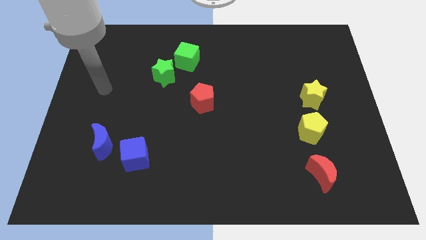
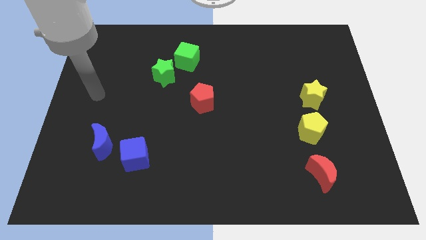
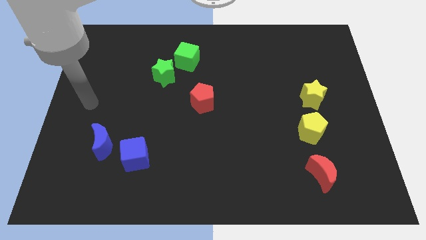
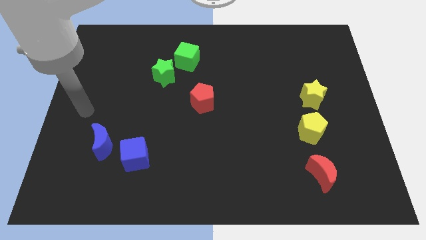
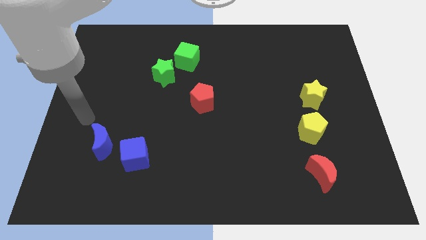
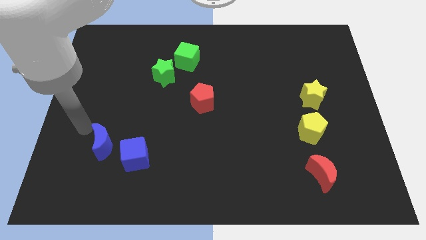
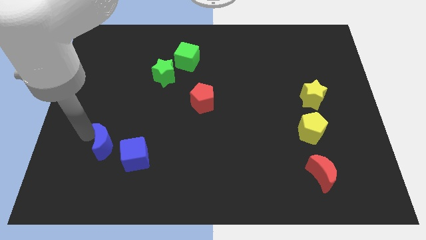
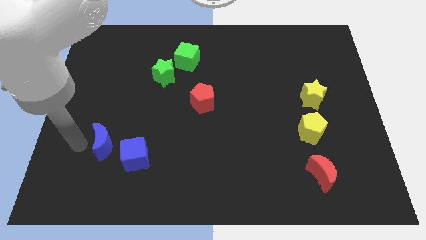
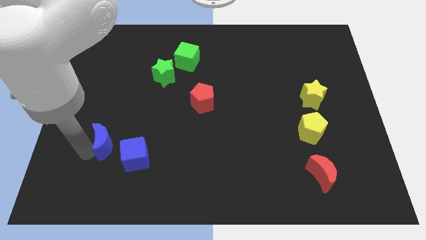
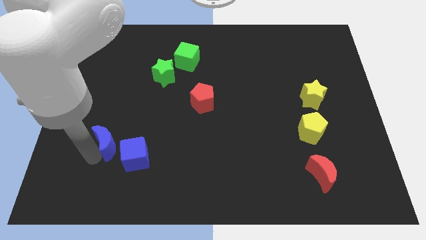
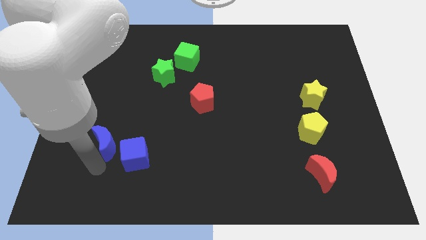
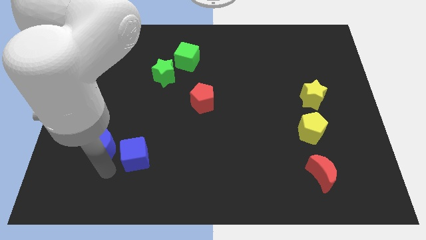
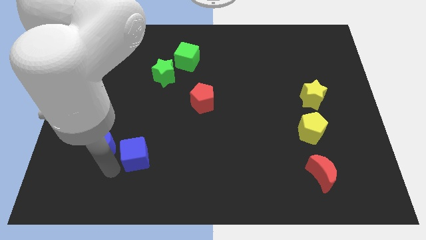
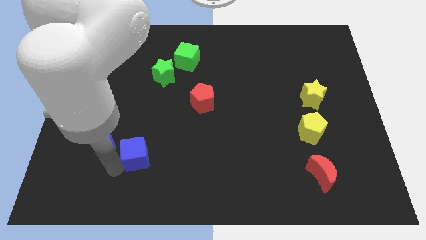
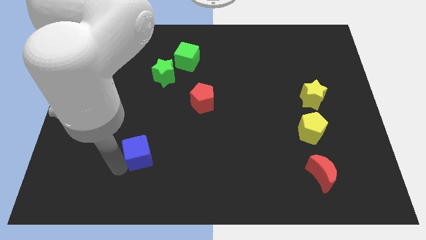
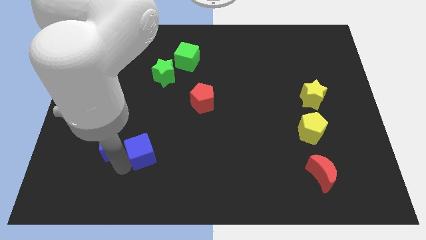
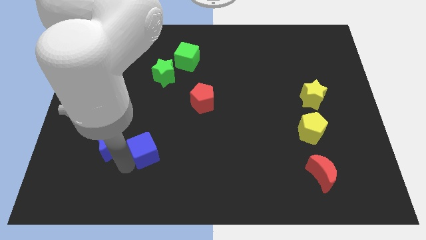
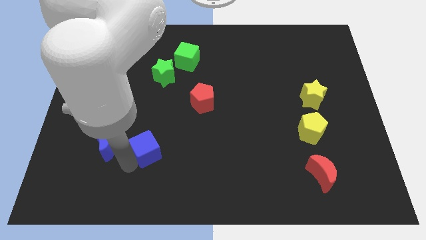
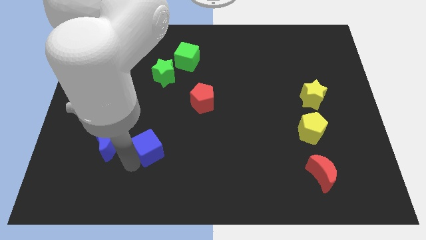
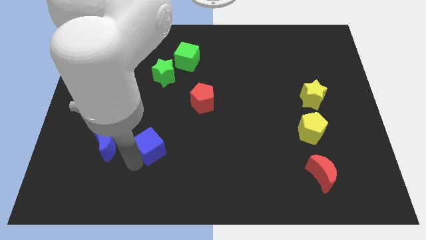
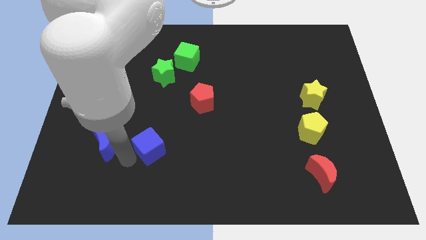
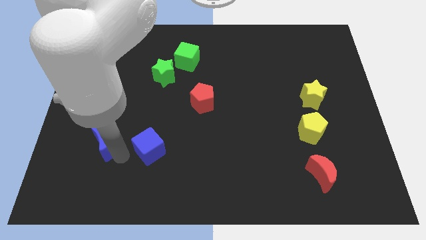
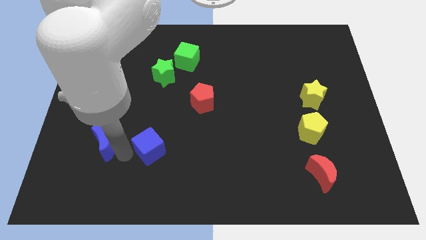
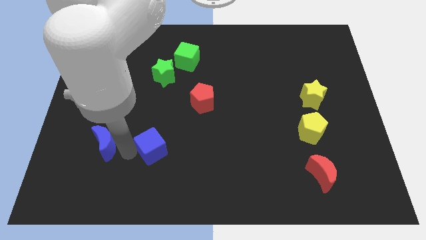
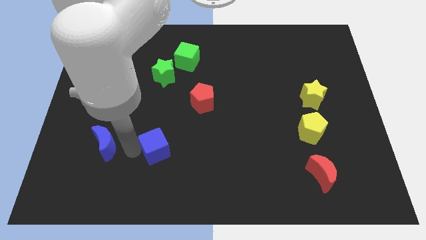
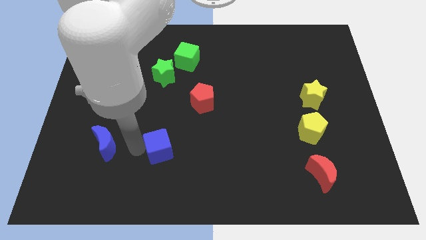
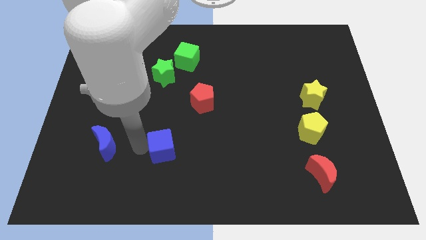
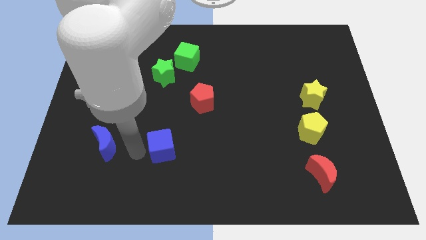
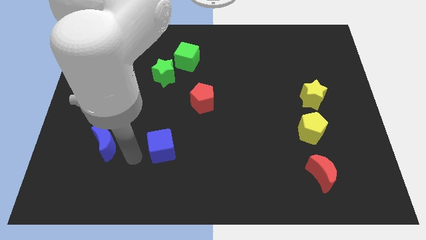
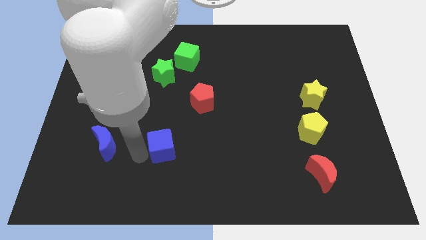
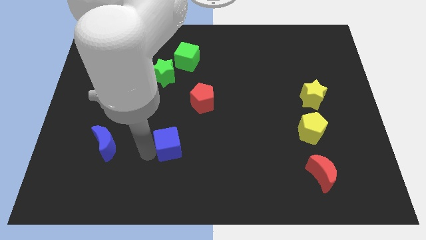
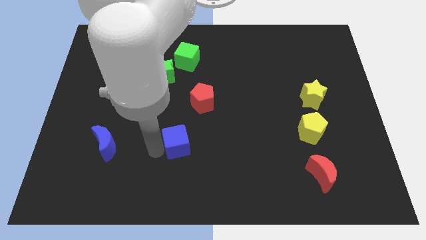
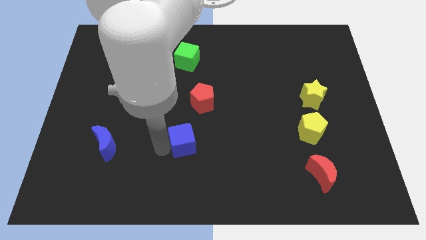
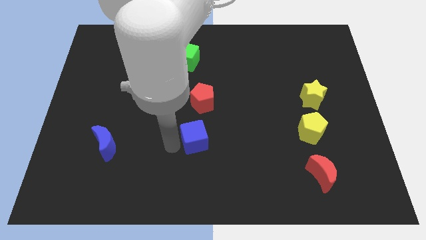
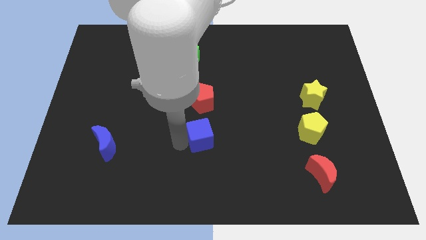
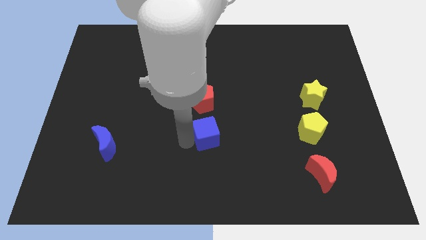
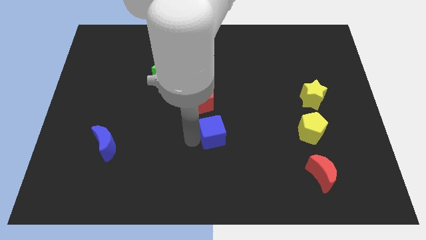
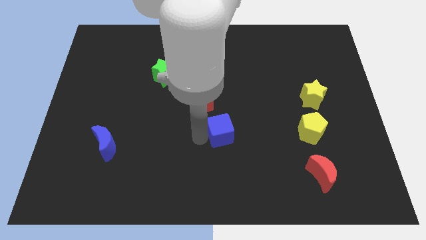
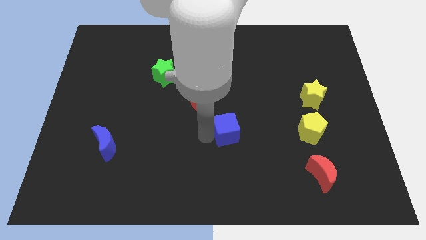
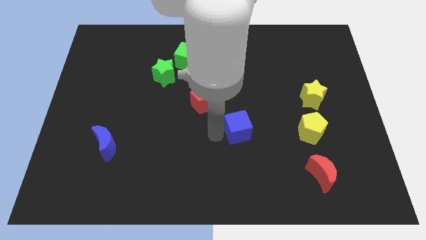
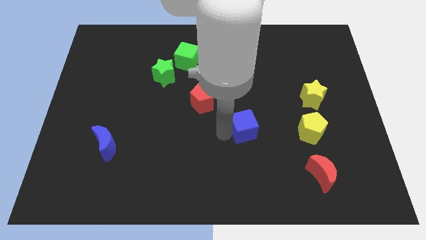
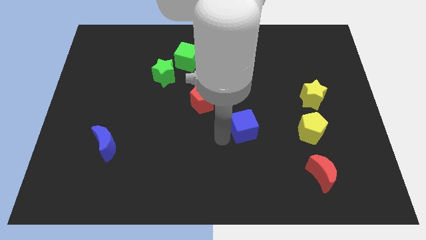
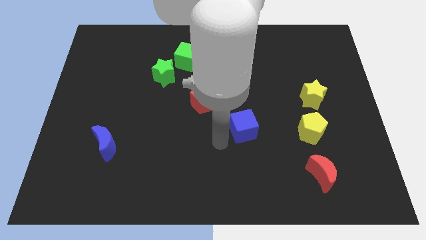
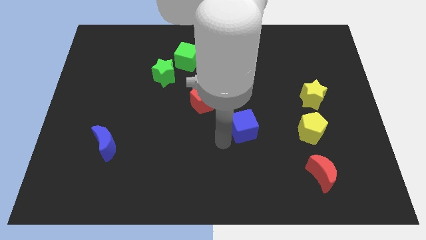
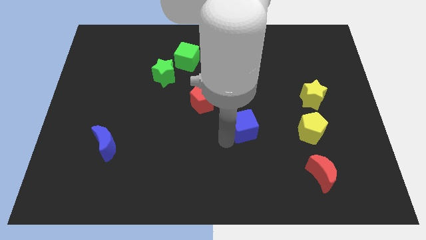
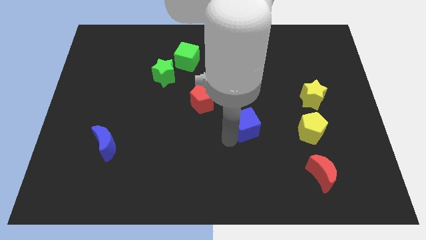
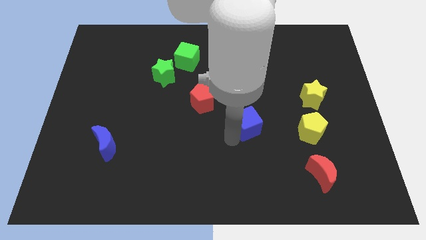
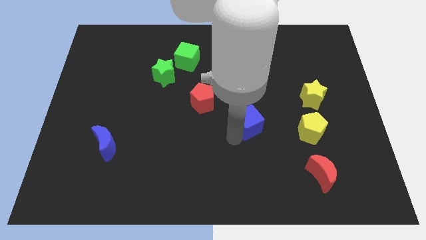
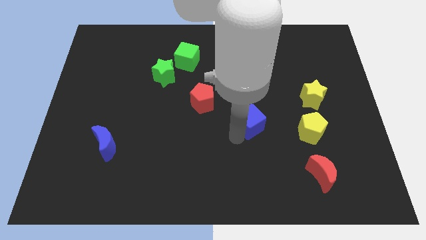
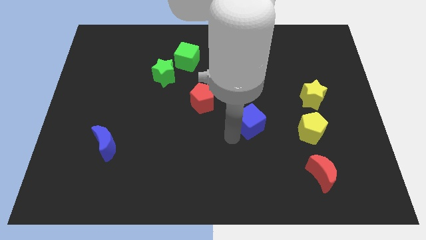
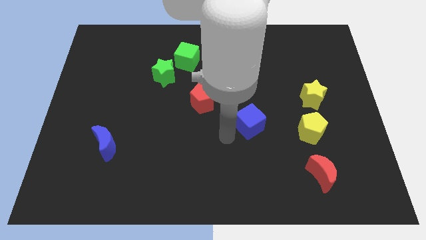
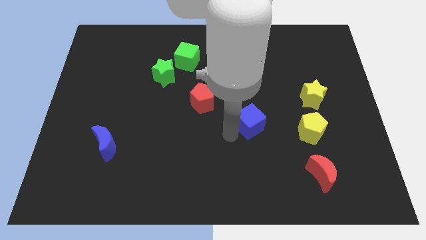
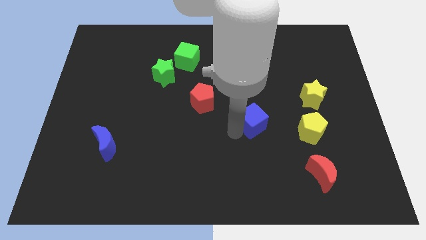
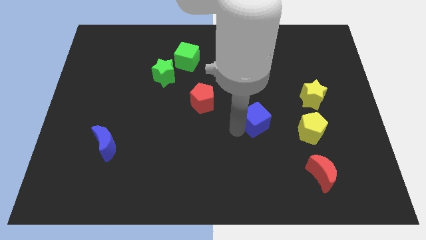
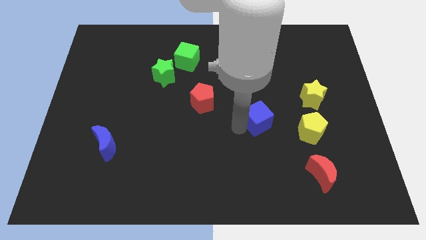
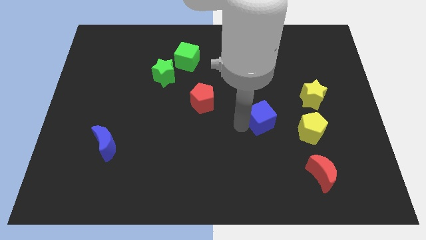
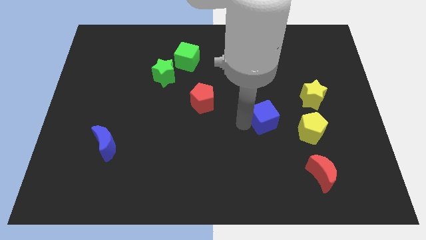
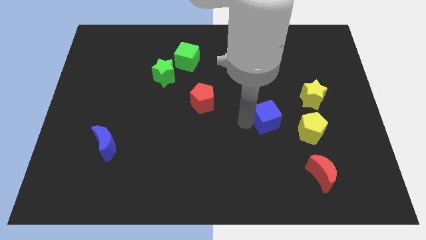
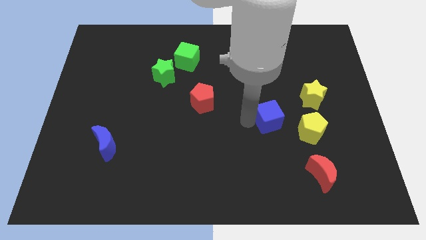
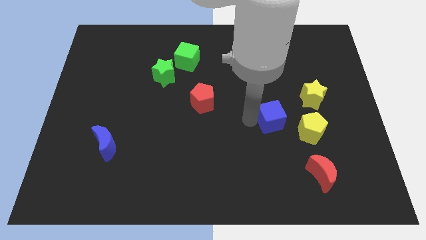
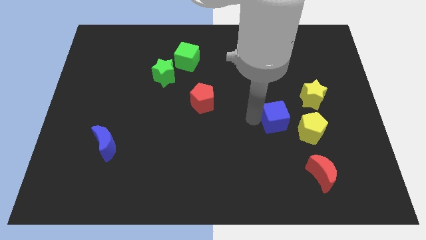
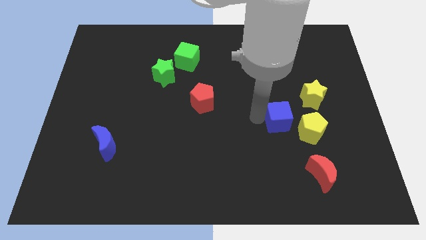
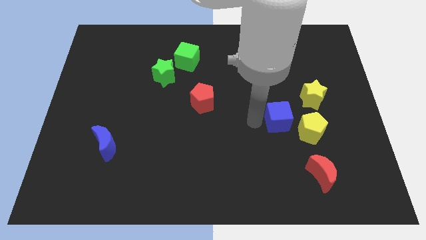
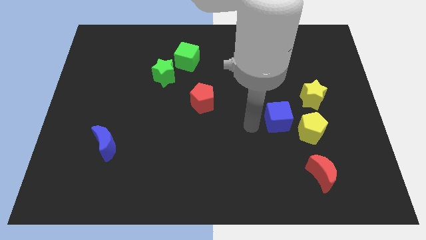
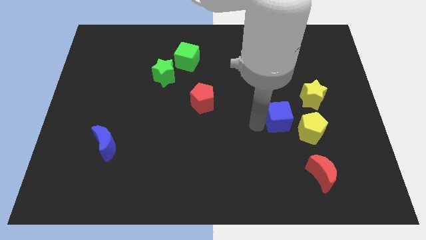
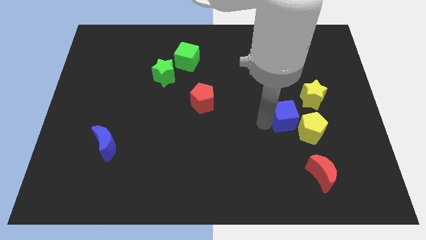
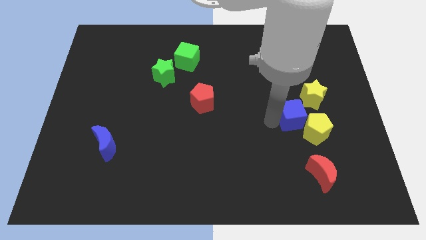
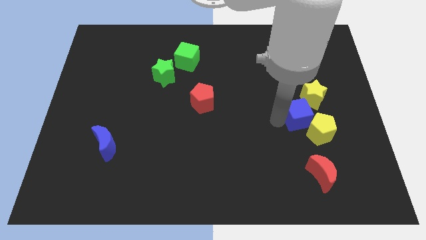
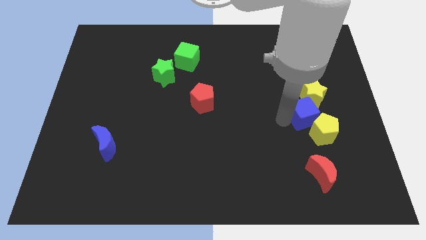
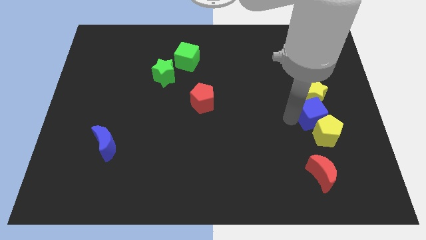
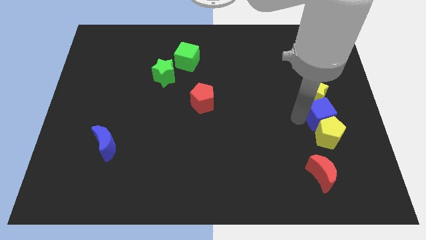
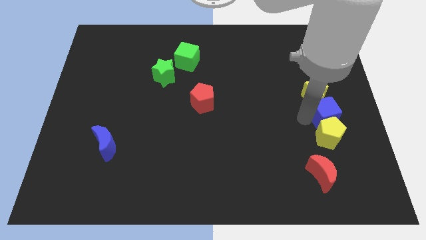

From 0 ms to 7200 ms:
move the blue cube to the right side of the board
